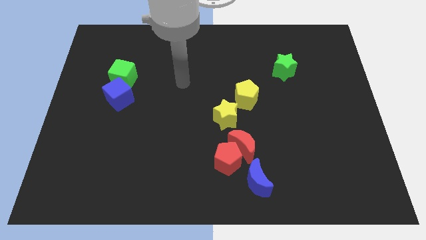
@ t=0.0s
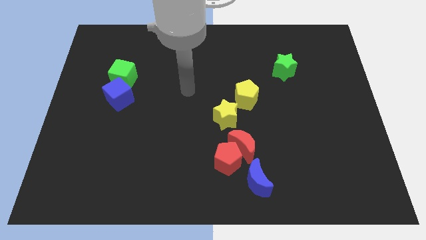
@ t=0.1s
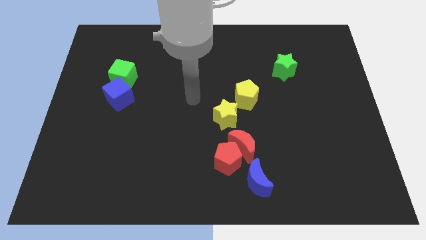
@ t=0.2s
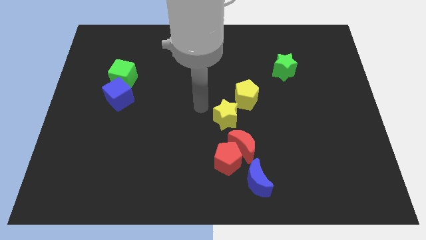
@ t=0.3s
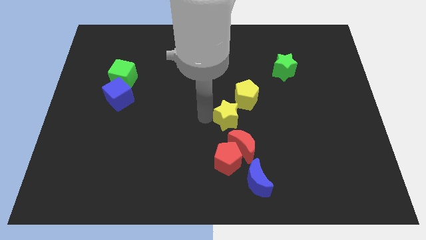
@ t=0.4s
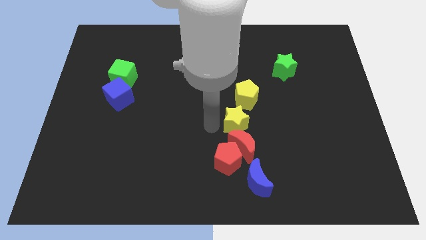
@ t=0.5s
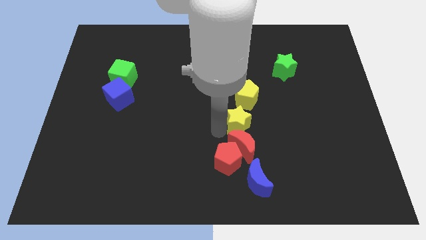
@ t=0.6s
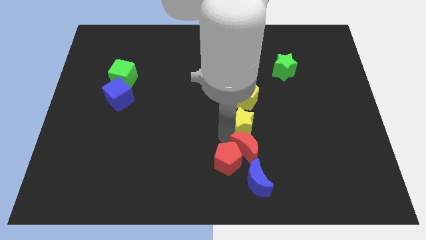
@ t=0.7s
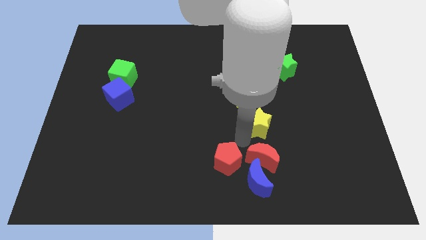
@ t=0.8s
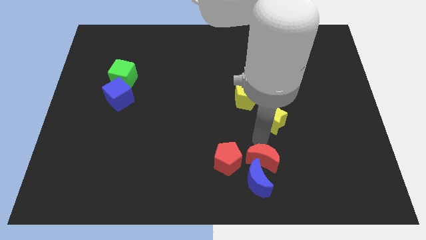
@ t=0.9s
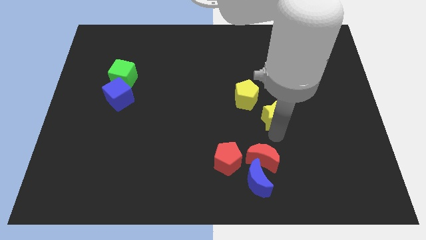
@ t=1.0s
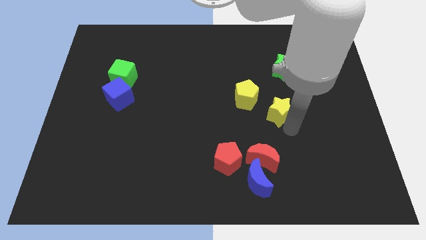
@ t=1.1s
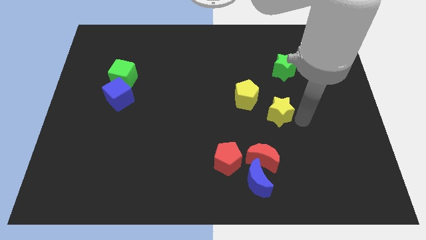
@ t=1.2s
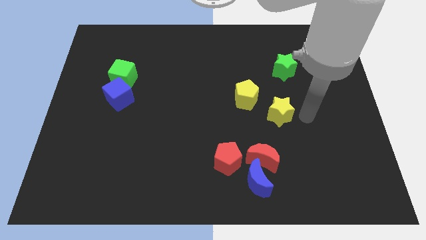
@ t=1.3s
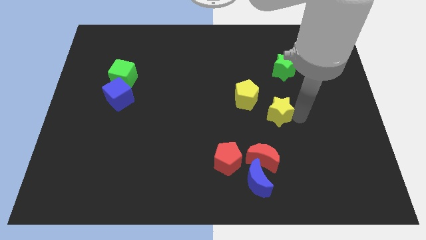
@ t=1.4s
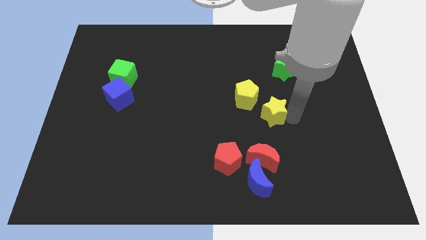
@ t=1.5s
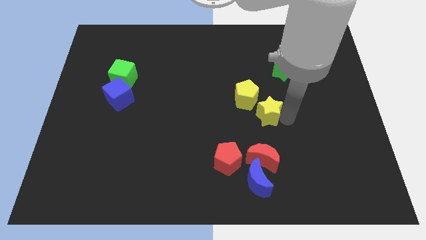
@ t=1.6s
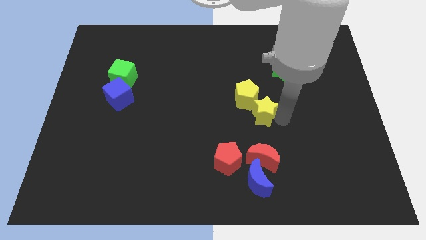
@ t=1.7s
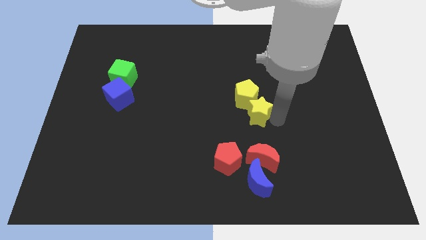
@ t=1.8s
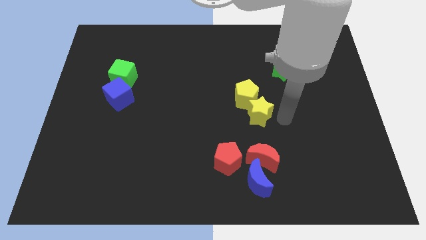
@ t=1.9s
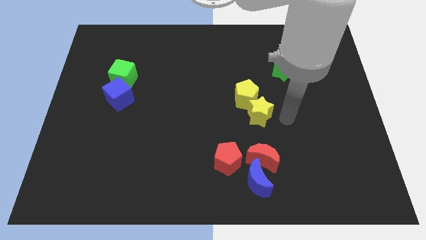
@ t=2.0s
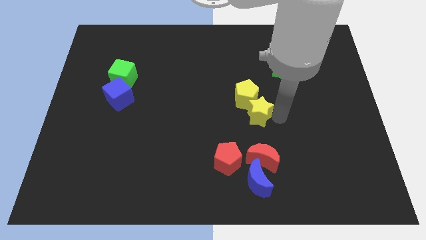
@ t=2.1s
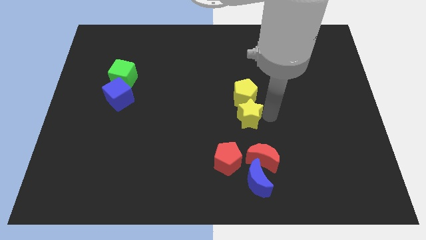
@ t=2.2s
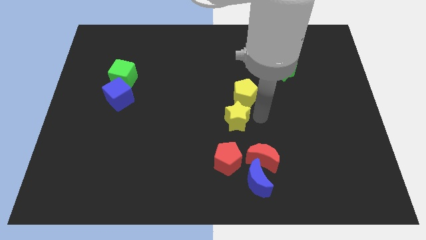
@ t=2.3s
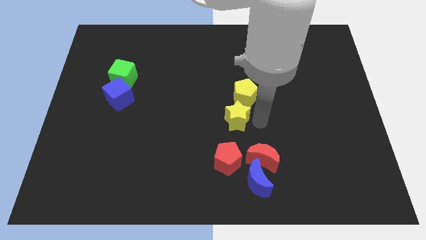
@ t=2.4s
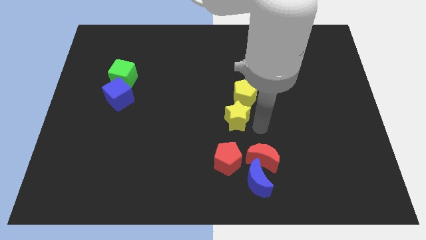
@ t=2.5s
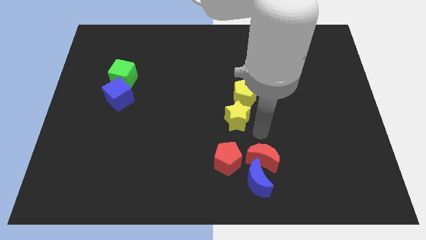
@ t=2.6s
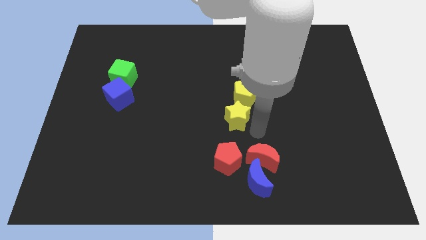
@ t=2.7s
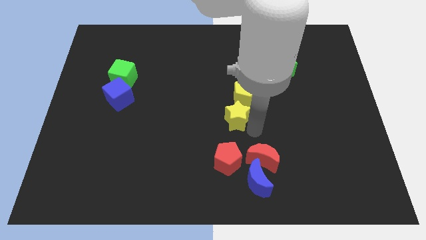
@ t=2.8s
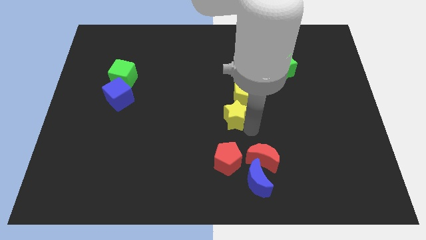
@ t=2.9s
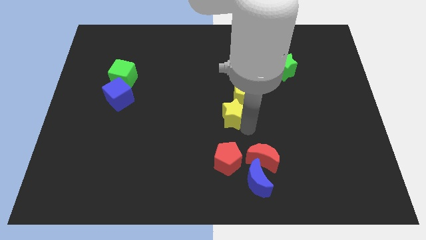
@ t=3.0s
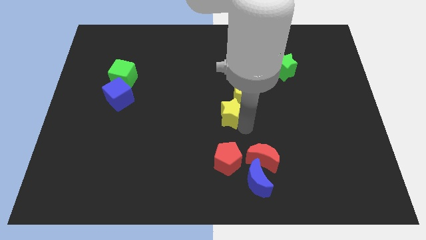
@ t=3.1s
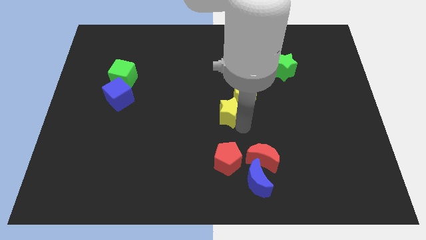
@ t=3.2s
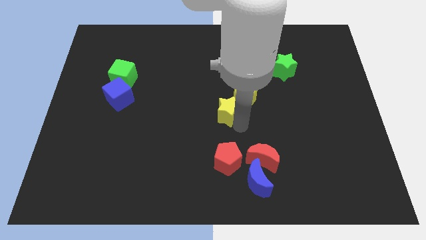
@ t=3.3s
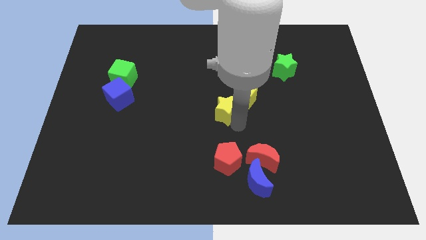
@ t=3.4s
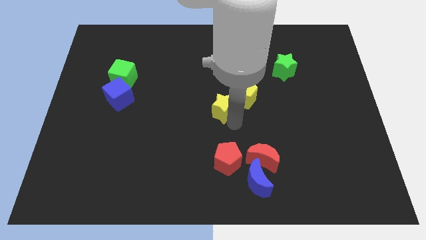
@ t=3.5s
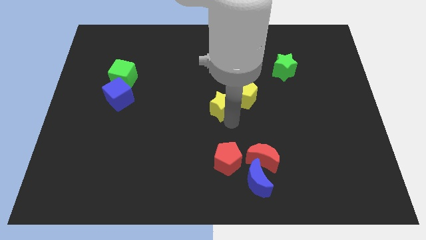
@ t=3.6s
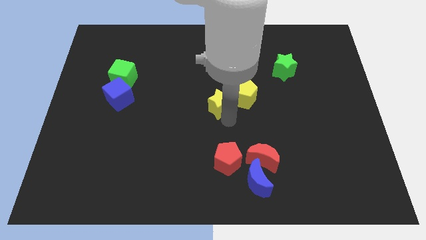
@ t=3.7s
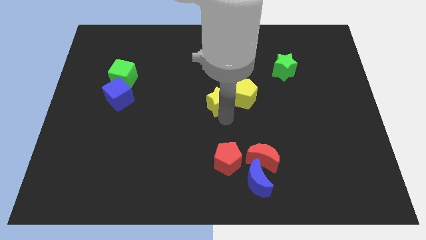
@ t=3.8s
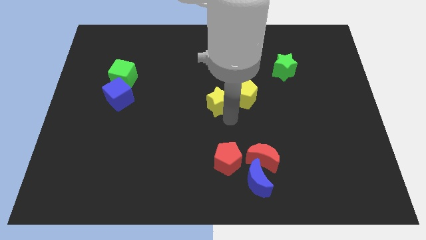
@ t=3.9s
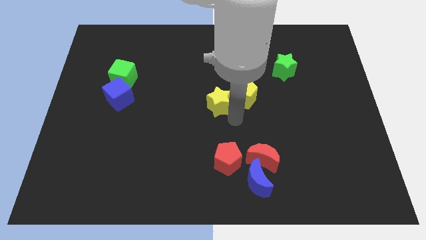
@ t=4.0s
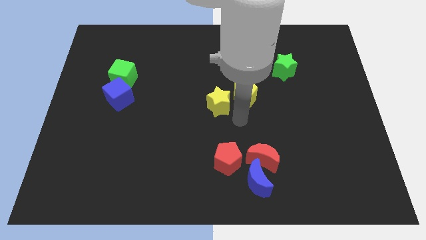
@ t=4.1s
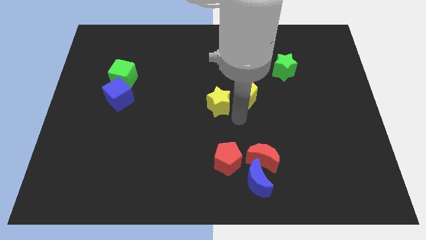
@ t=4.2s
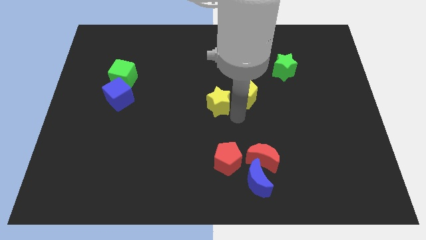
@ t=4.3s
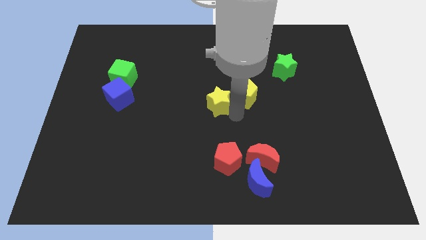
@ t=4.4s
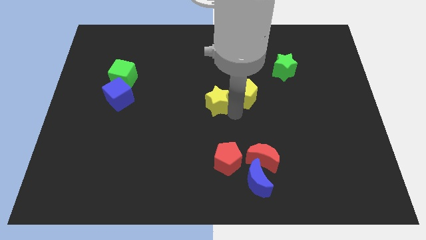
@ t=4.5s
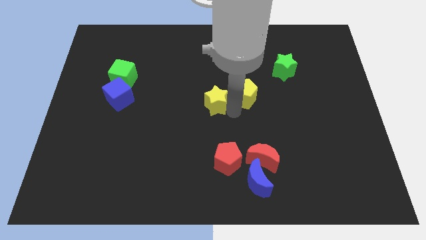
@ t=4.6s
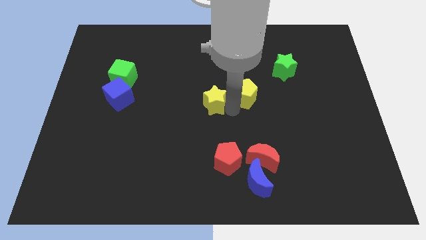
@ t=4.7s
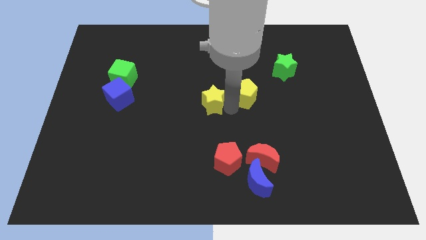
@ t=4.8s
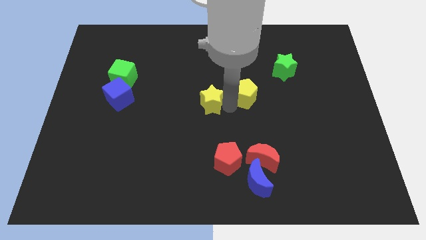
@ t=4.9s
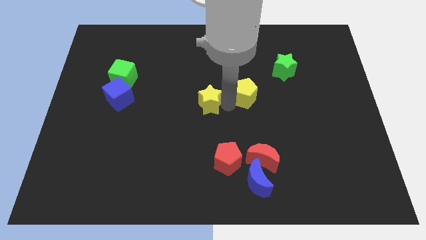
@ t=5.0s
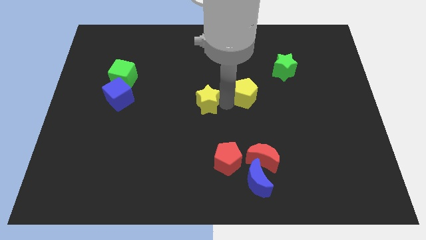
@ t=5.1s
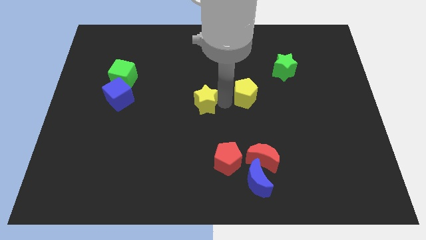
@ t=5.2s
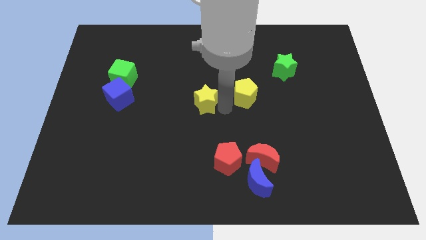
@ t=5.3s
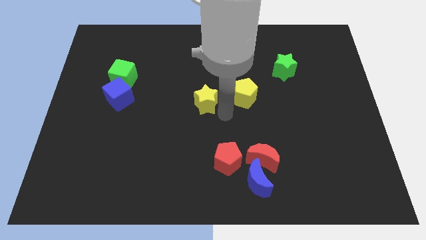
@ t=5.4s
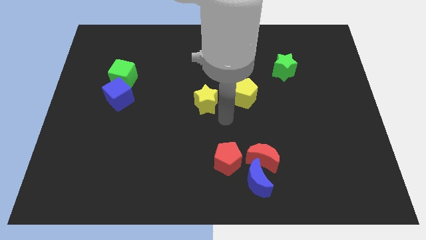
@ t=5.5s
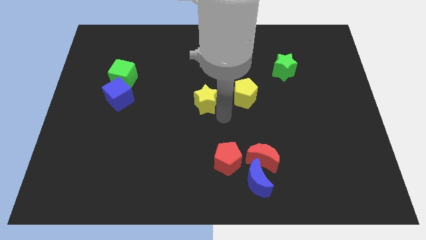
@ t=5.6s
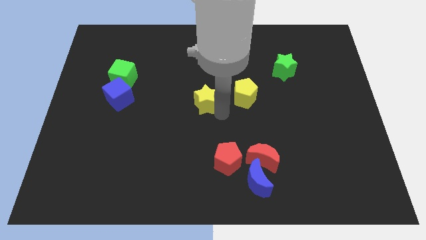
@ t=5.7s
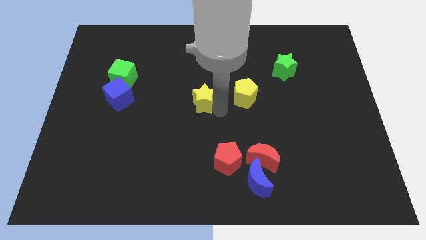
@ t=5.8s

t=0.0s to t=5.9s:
push the yellow star up and to the left diagonally slightly

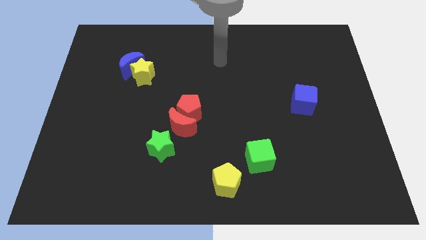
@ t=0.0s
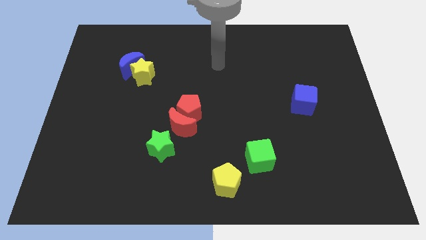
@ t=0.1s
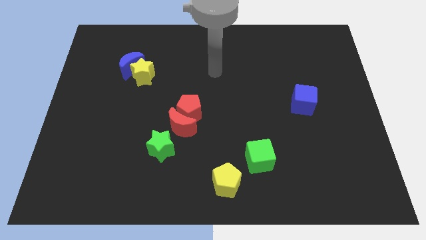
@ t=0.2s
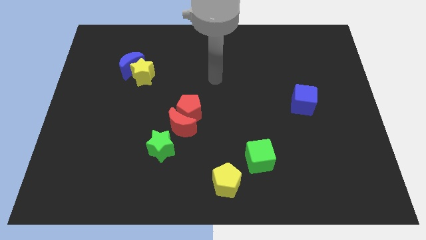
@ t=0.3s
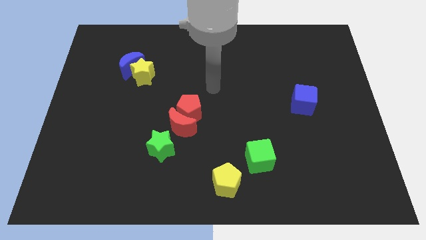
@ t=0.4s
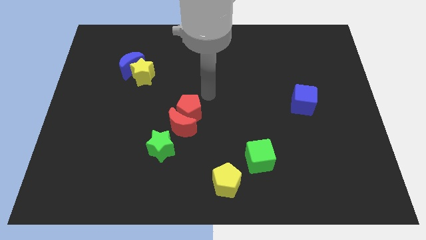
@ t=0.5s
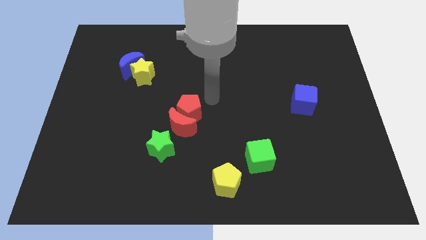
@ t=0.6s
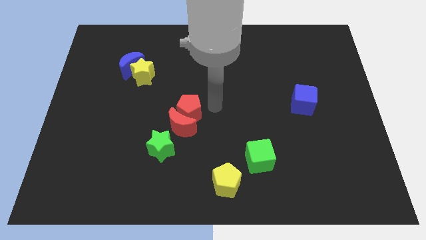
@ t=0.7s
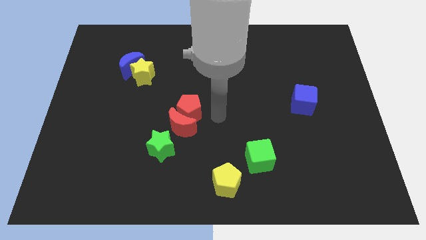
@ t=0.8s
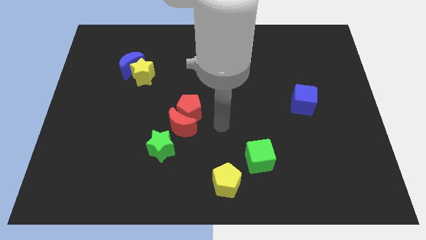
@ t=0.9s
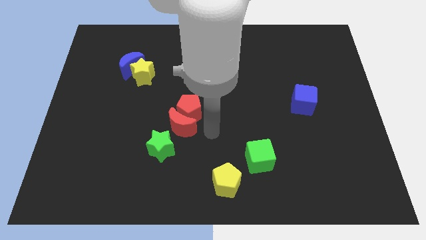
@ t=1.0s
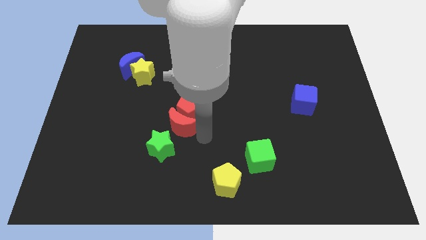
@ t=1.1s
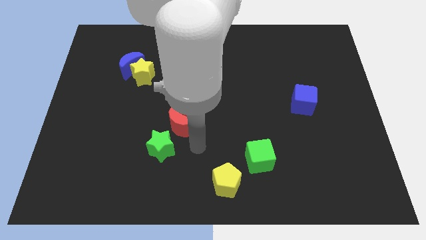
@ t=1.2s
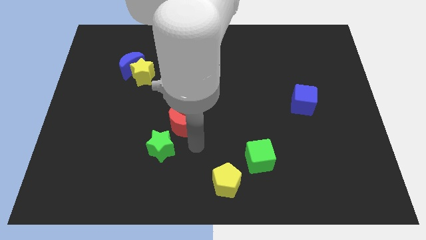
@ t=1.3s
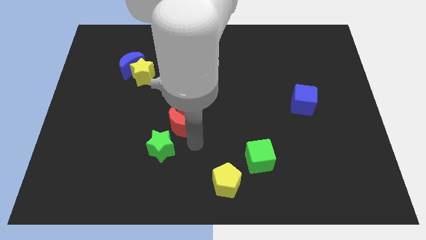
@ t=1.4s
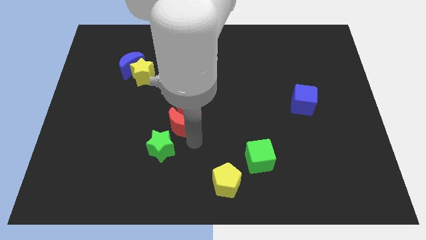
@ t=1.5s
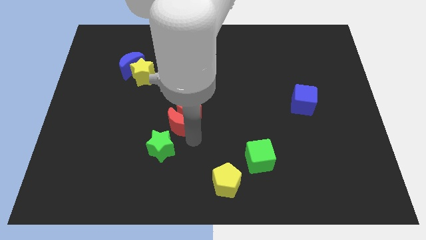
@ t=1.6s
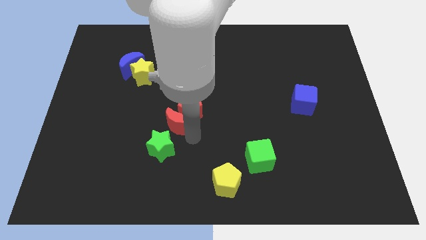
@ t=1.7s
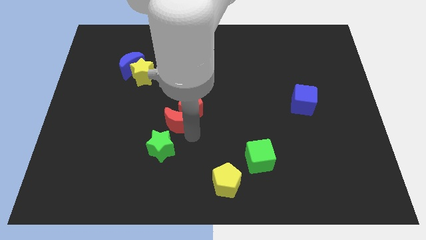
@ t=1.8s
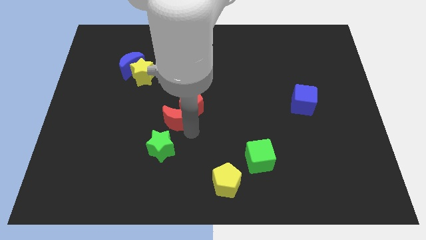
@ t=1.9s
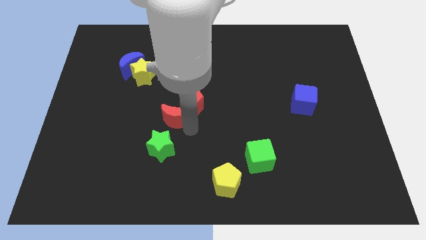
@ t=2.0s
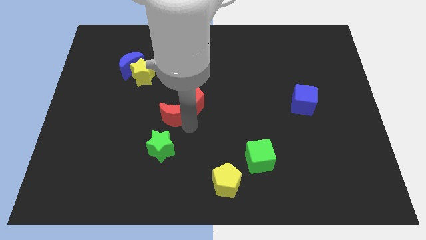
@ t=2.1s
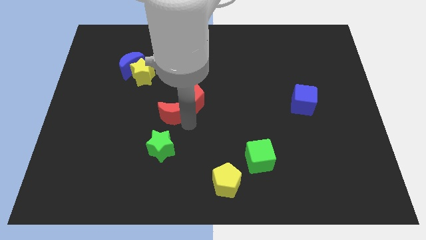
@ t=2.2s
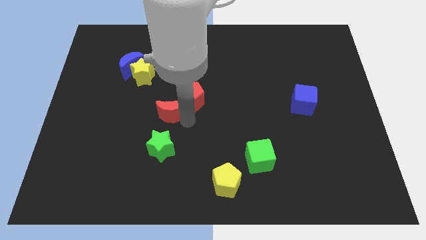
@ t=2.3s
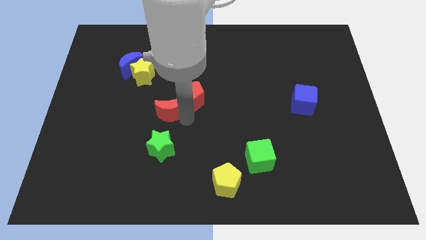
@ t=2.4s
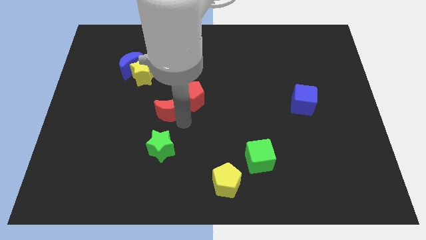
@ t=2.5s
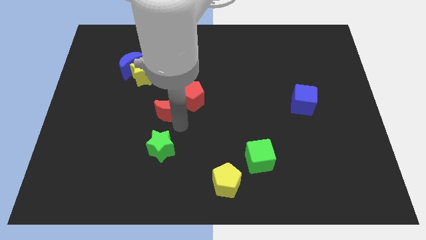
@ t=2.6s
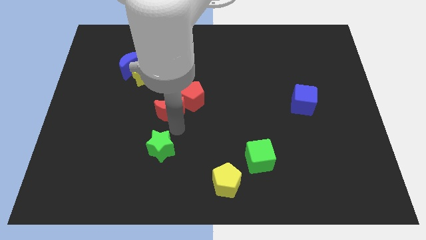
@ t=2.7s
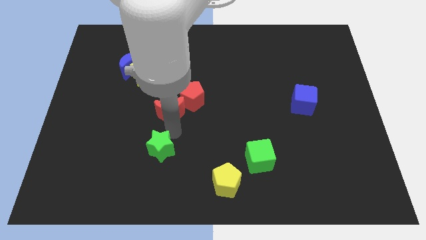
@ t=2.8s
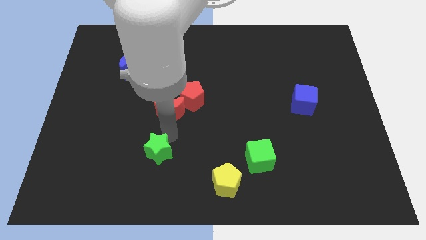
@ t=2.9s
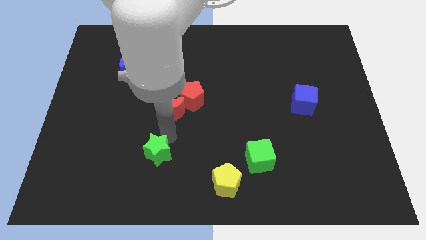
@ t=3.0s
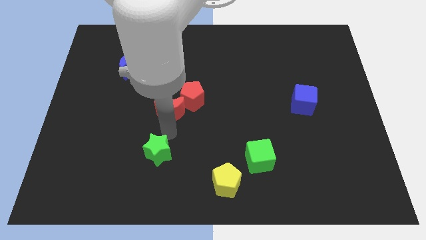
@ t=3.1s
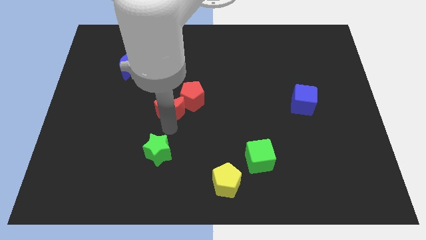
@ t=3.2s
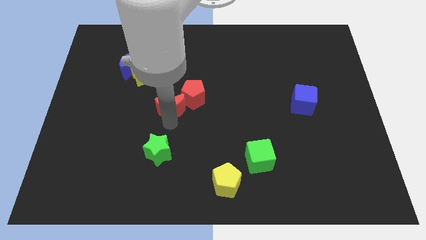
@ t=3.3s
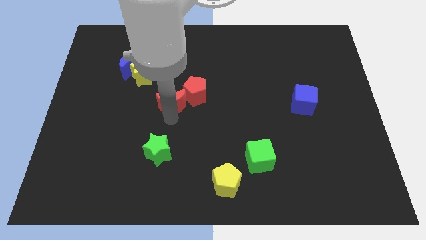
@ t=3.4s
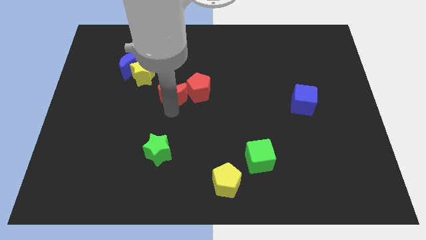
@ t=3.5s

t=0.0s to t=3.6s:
slightly slide the red moon up
